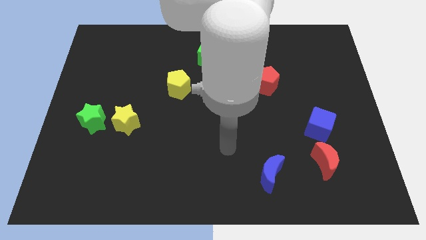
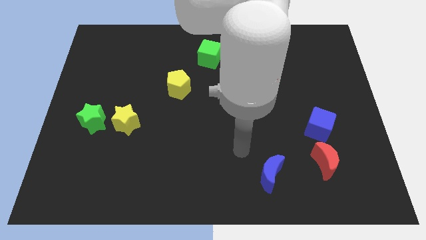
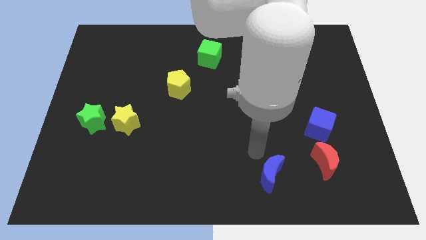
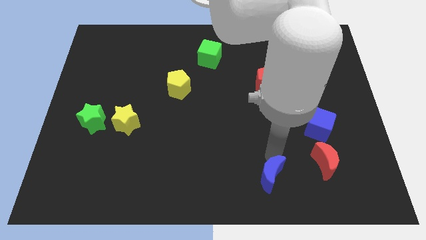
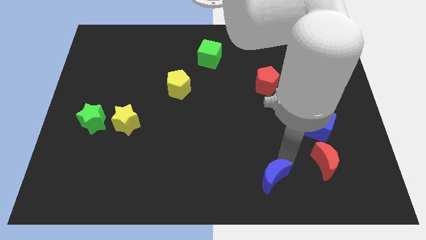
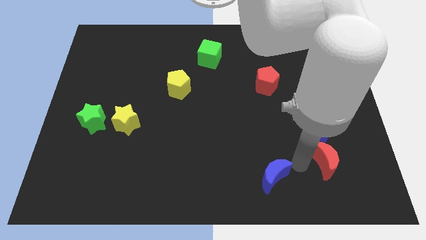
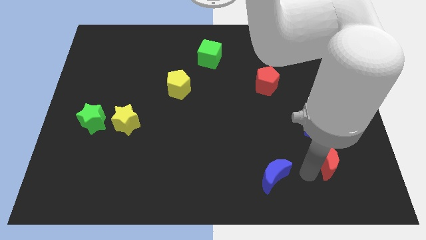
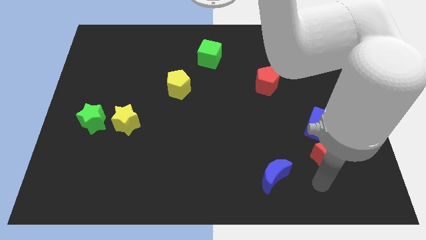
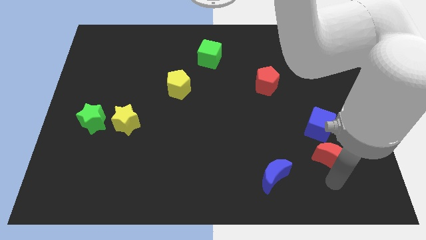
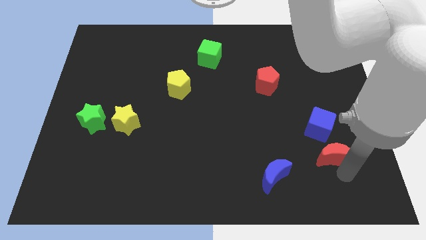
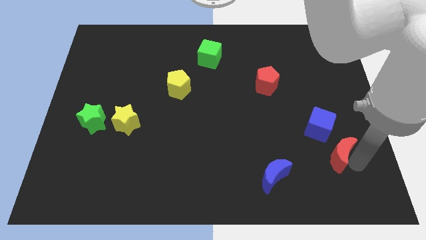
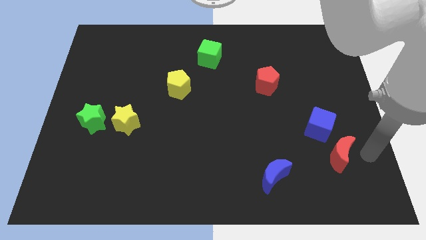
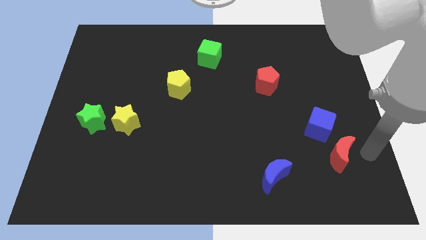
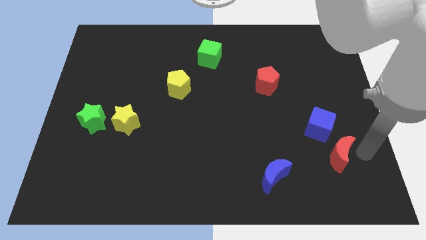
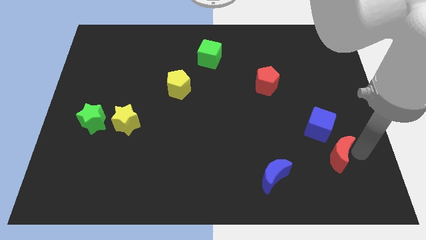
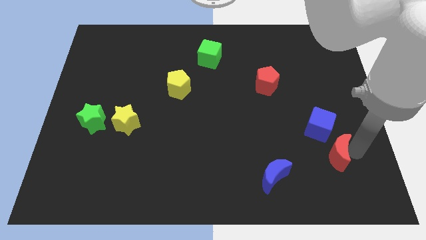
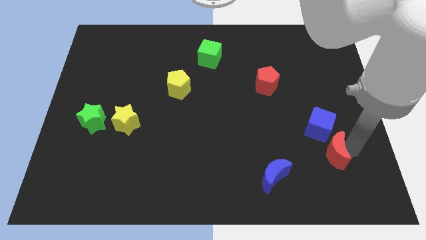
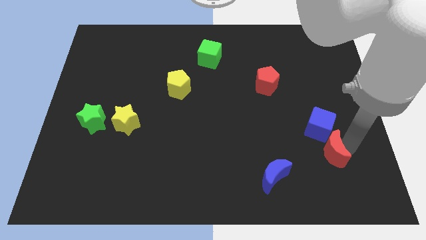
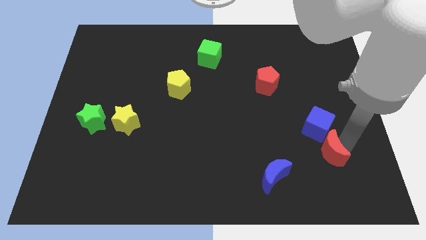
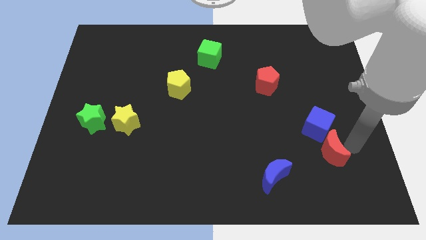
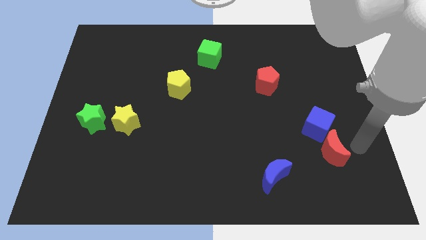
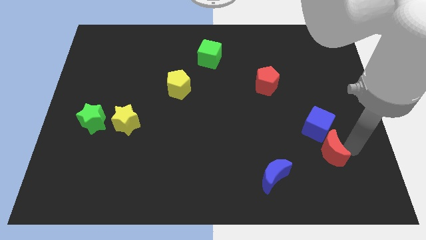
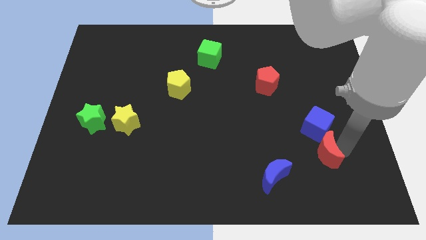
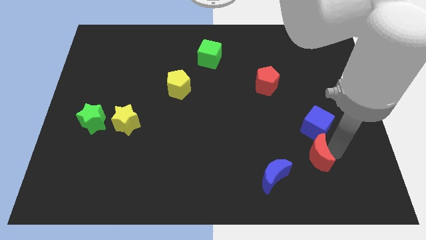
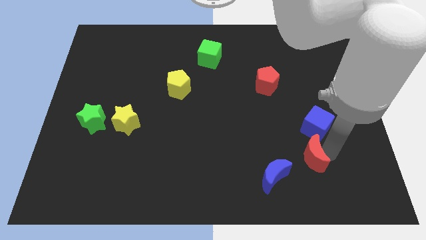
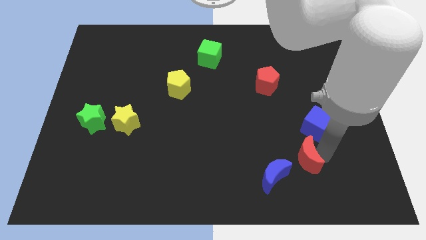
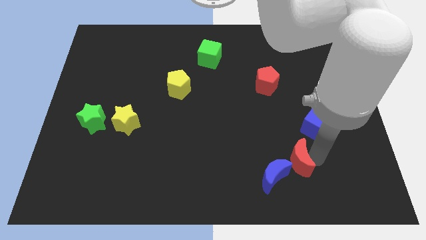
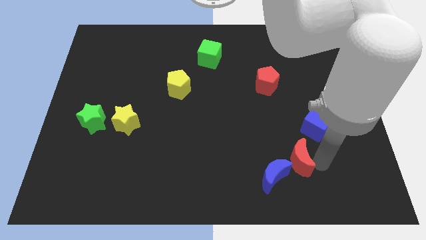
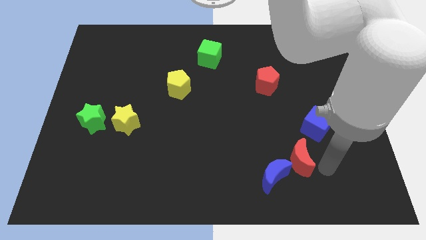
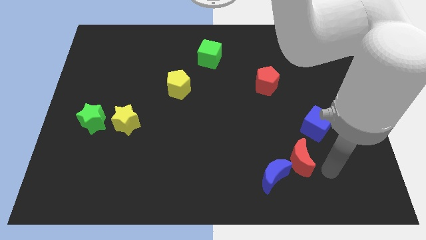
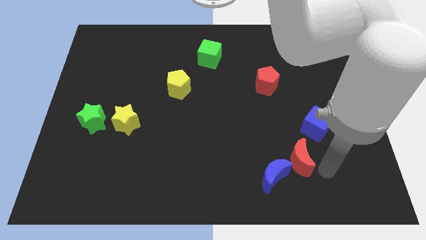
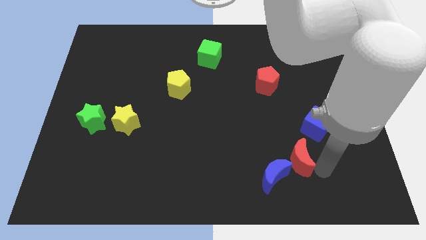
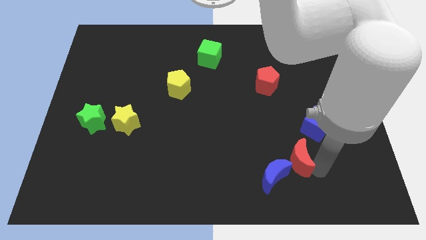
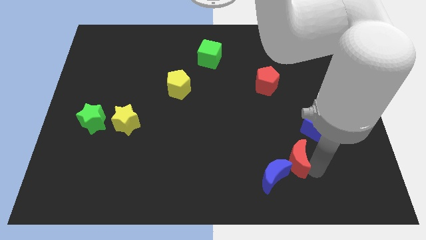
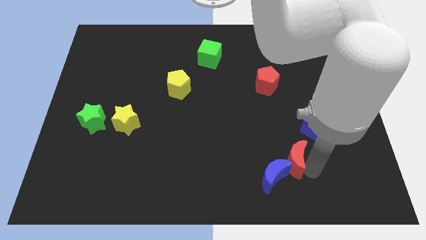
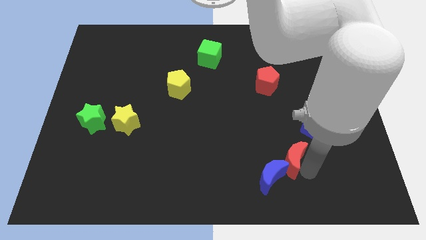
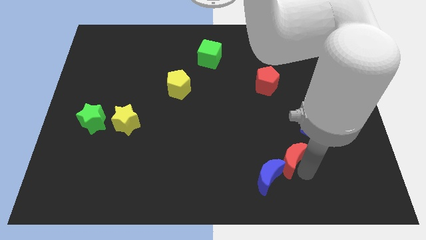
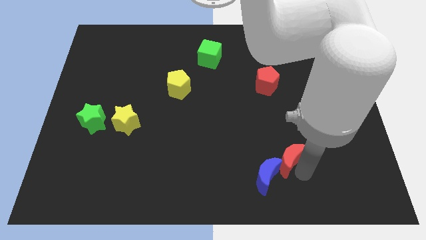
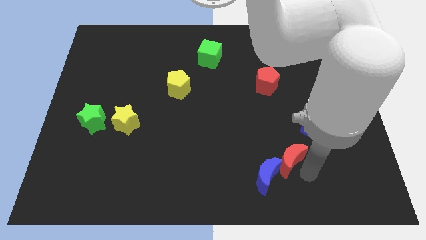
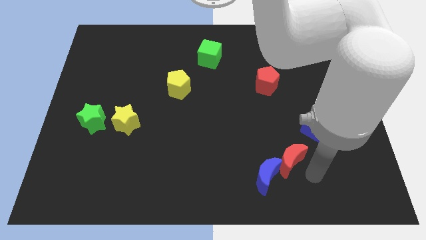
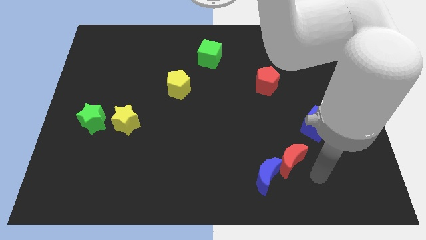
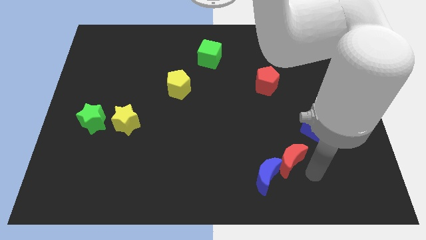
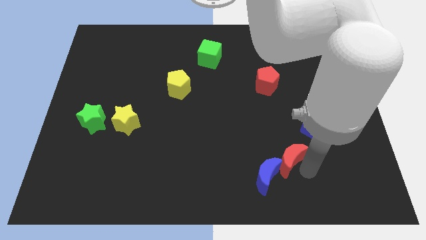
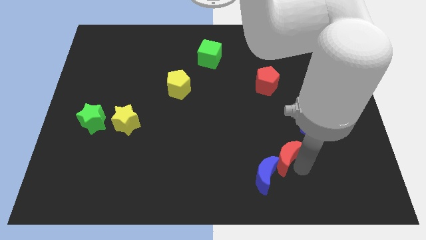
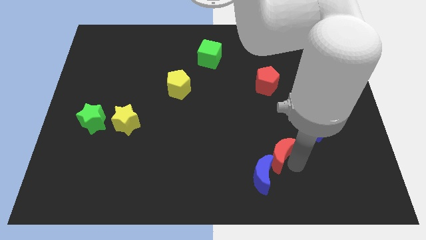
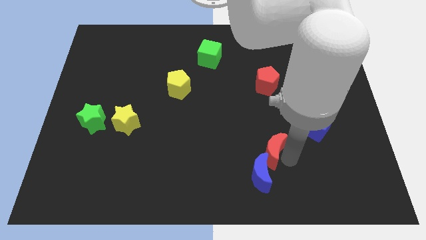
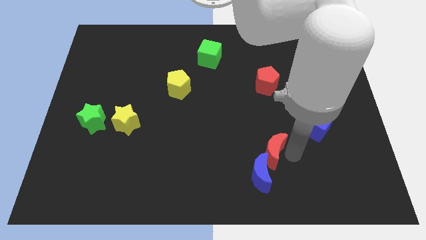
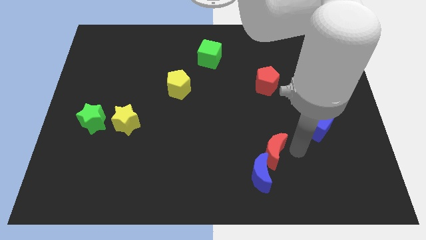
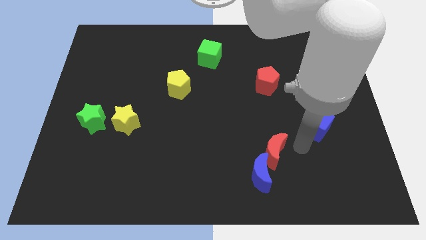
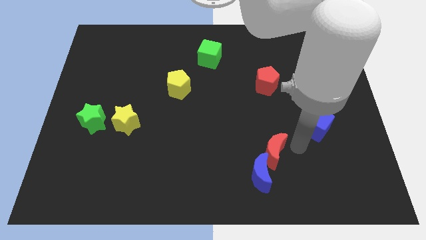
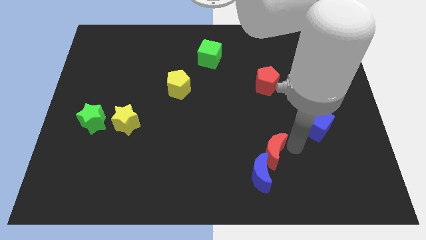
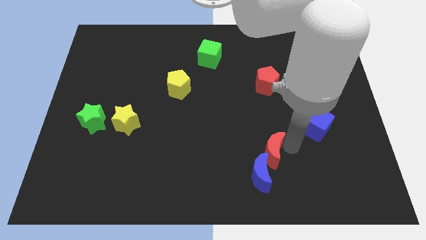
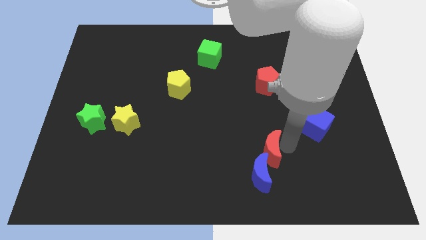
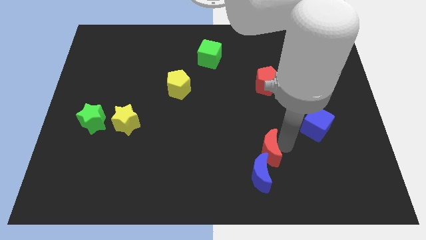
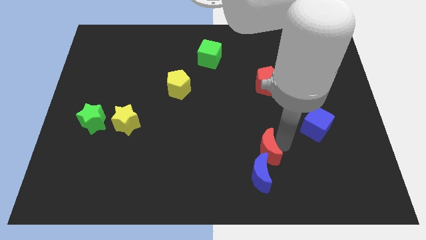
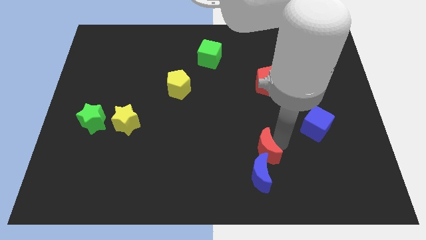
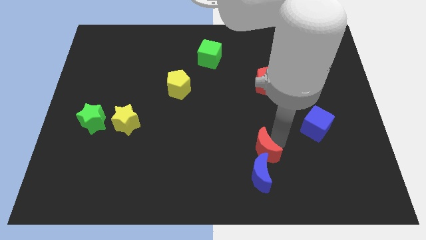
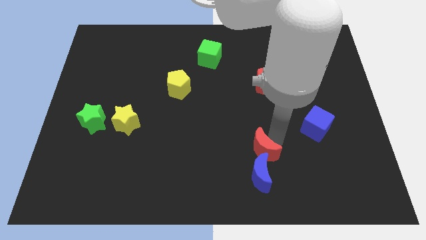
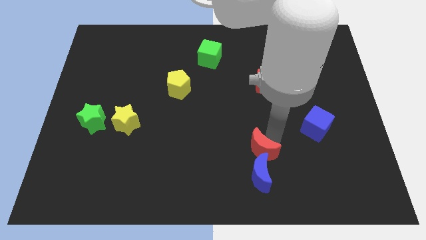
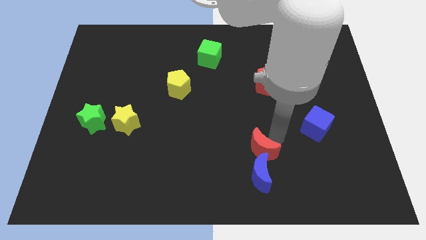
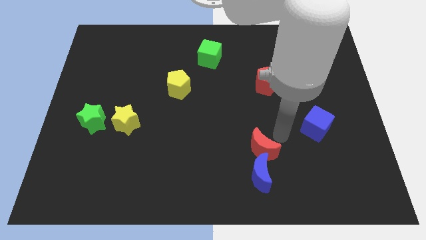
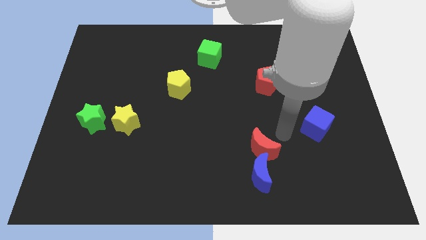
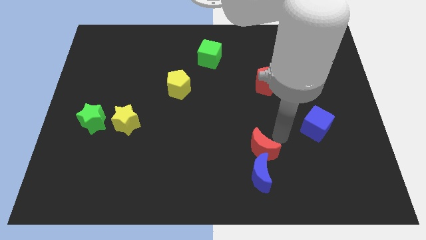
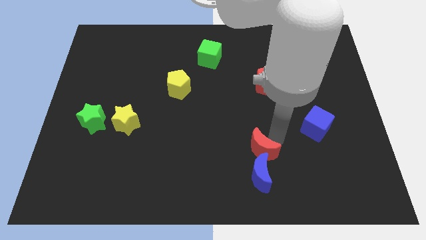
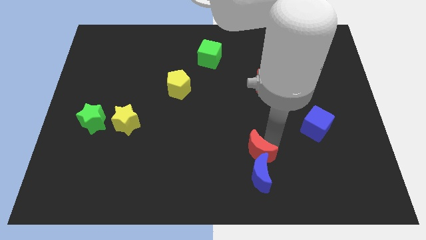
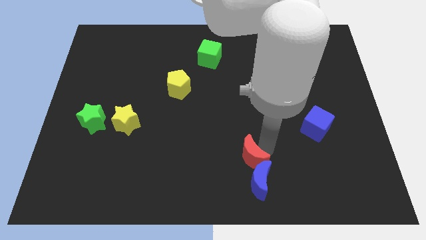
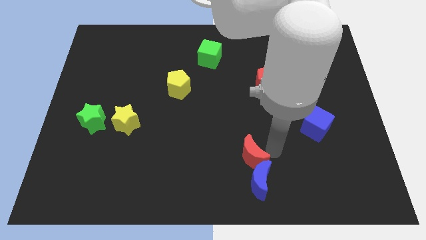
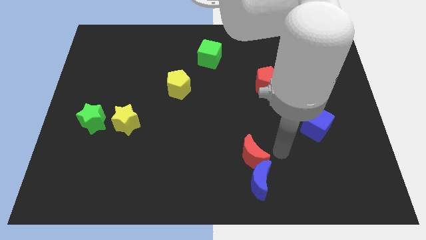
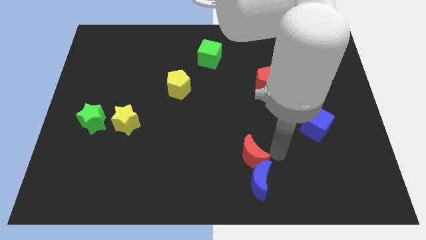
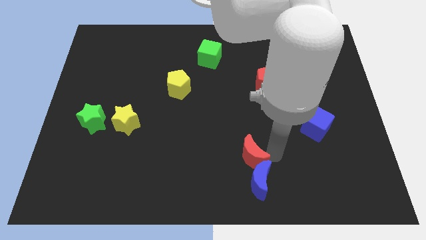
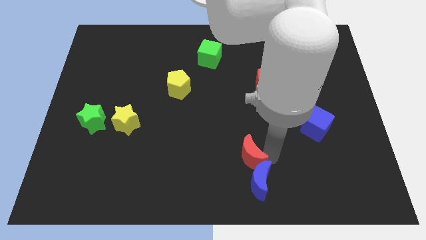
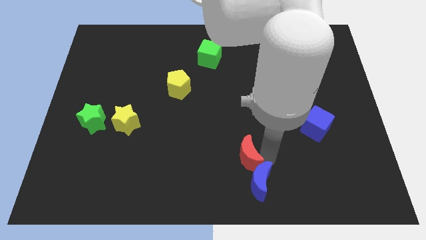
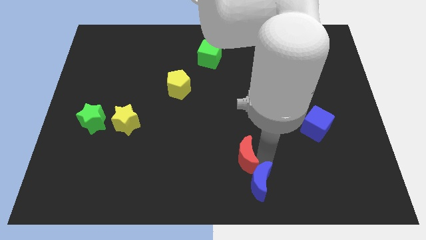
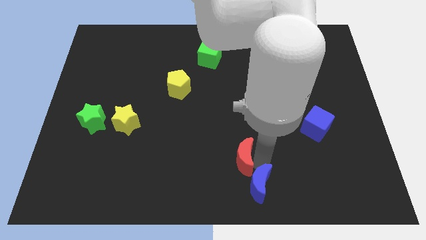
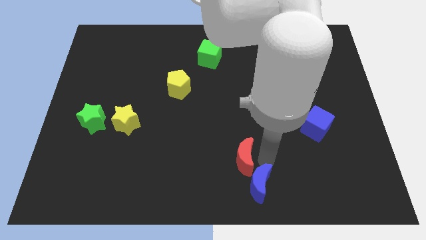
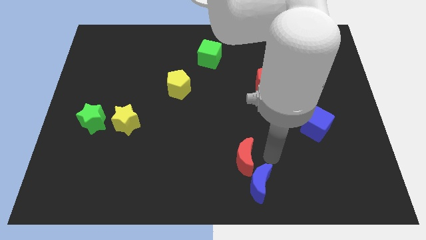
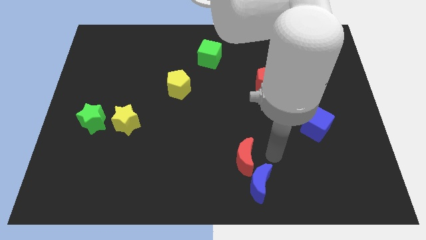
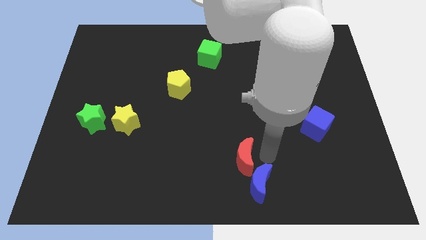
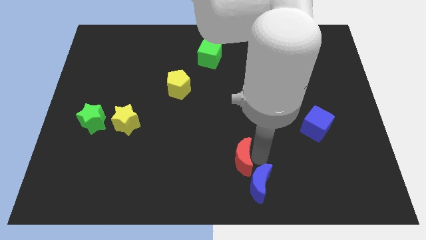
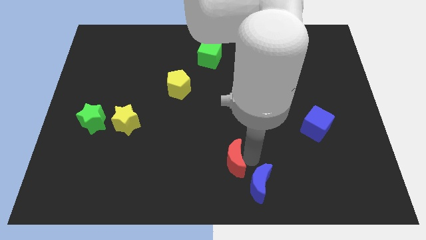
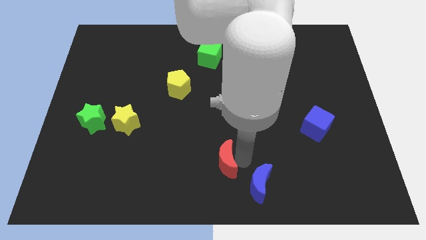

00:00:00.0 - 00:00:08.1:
push the red moon left

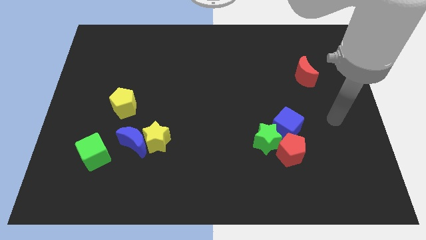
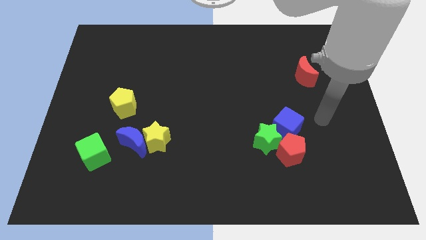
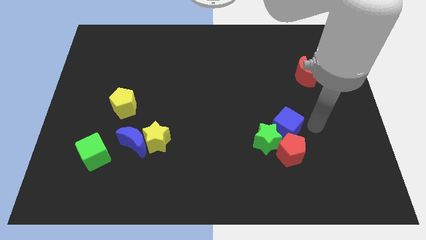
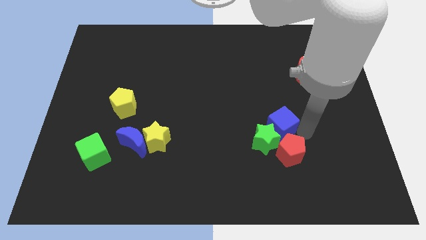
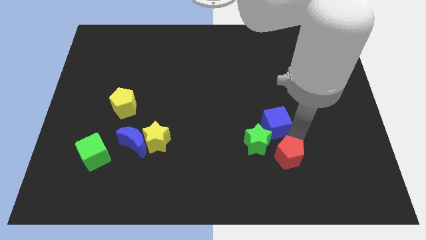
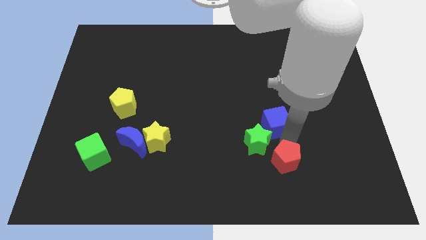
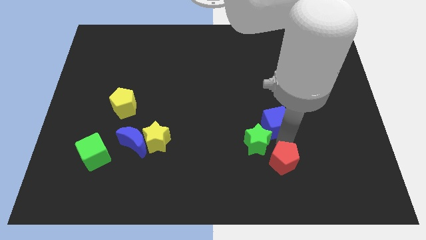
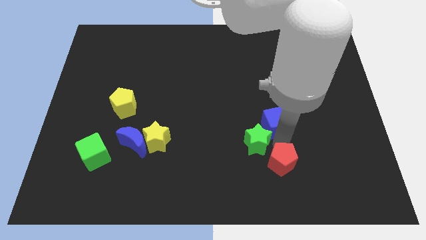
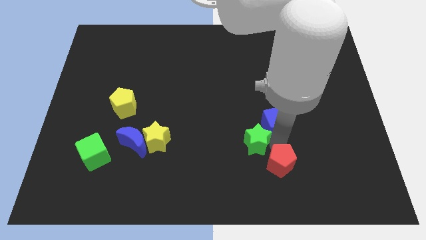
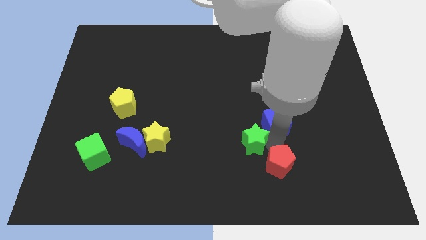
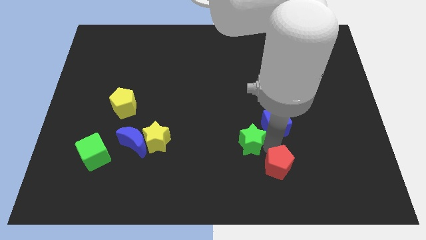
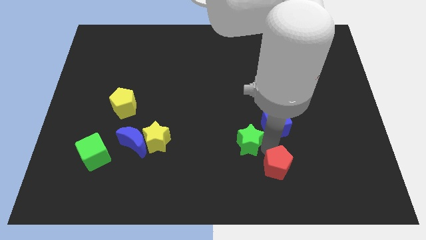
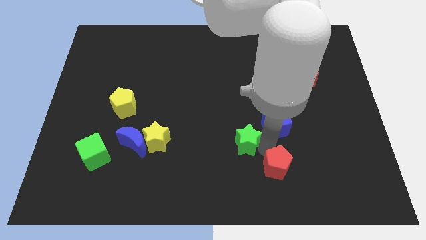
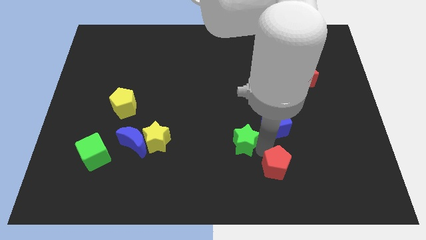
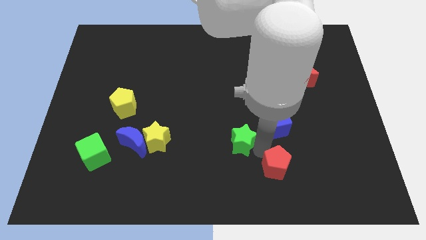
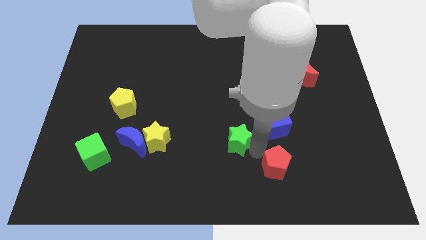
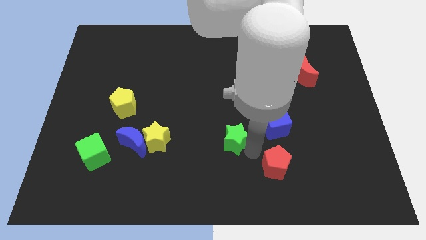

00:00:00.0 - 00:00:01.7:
slightly push the green star to the left
